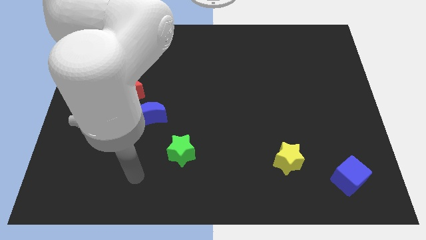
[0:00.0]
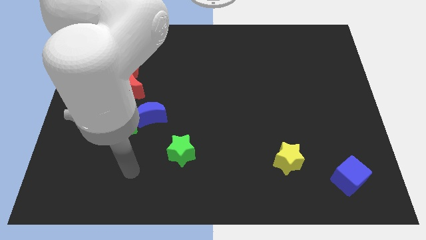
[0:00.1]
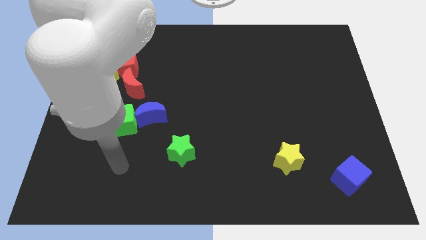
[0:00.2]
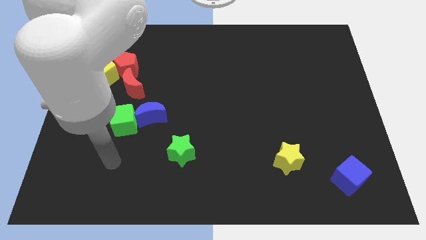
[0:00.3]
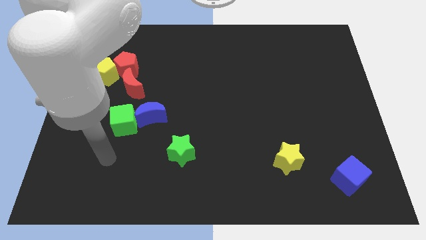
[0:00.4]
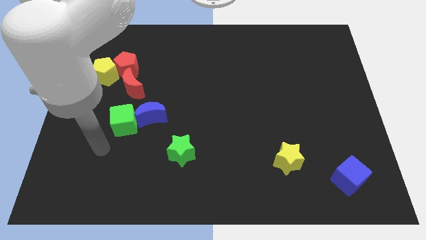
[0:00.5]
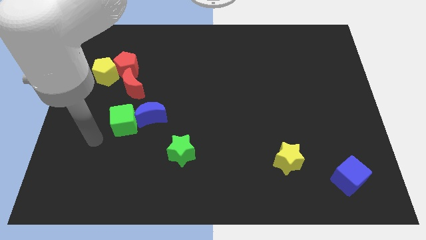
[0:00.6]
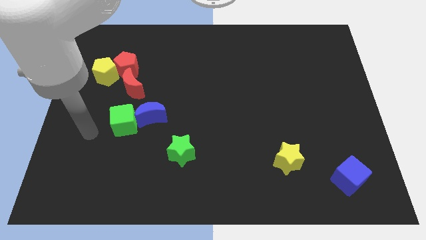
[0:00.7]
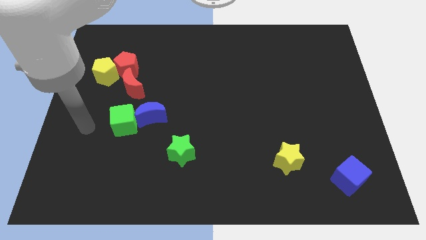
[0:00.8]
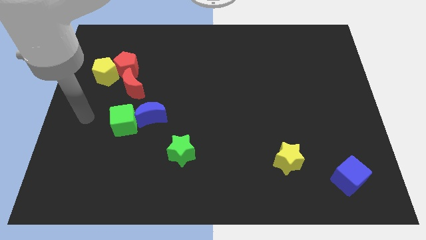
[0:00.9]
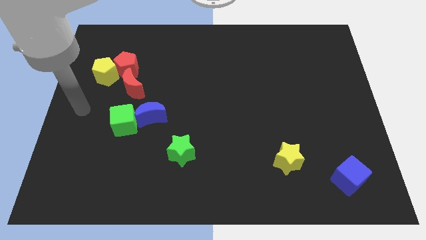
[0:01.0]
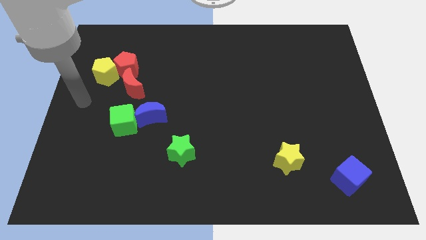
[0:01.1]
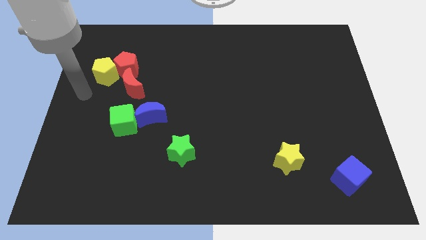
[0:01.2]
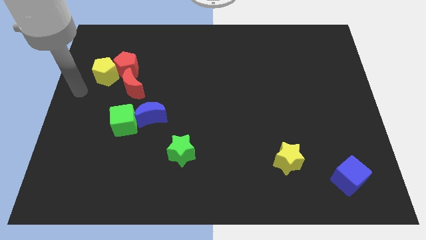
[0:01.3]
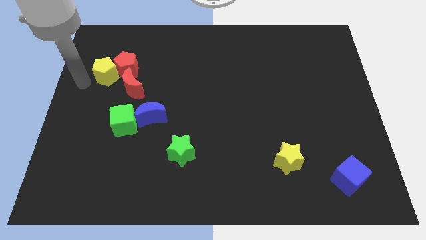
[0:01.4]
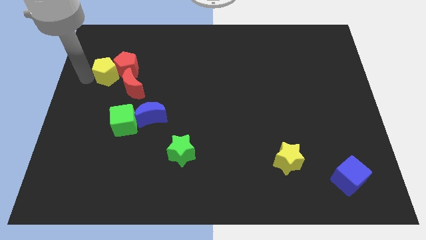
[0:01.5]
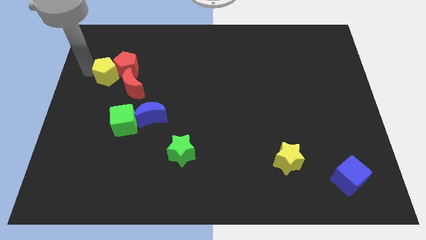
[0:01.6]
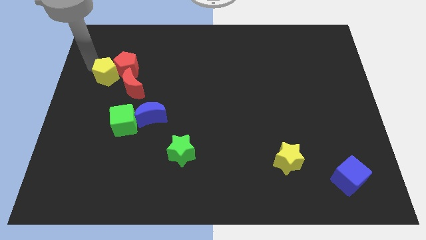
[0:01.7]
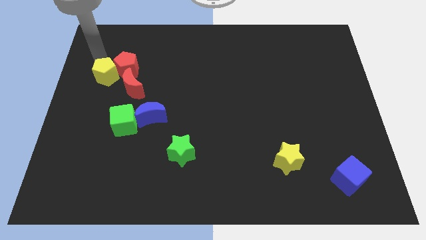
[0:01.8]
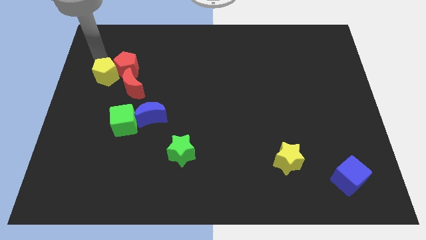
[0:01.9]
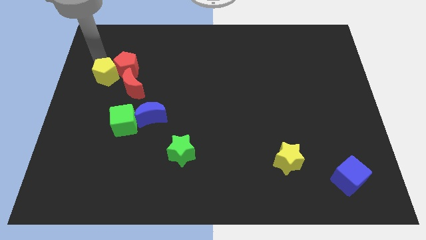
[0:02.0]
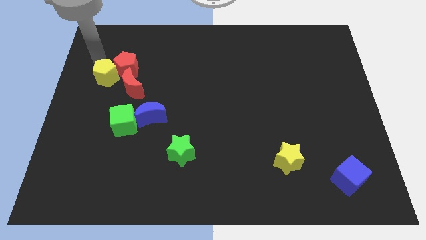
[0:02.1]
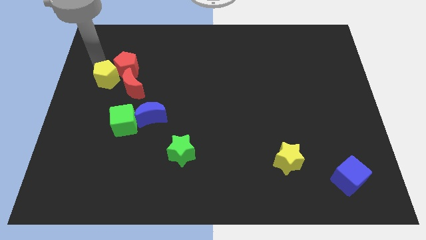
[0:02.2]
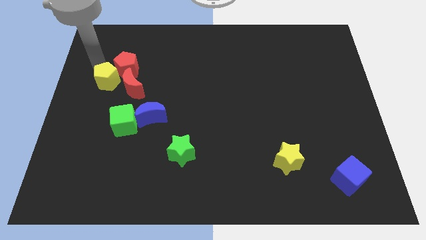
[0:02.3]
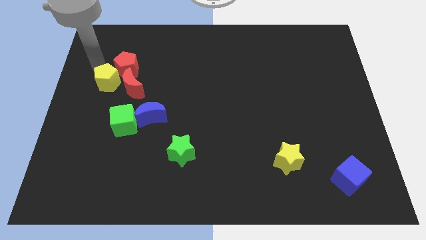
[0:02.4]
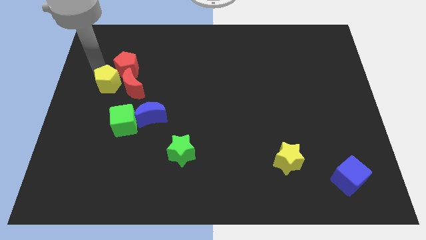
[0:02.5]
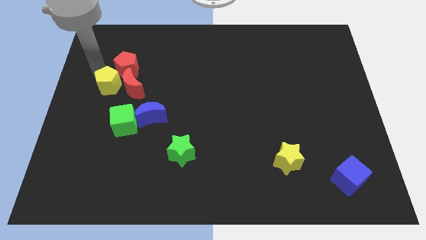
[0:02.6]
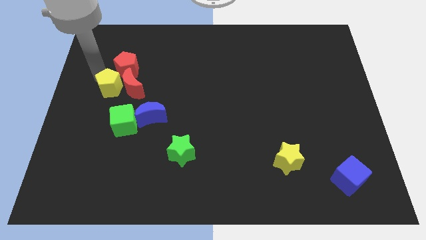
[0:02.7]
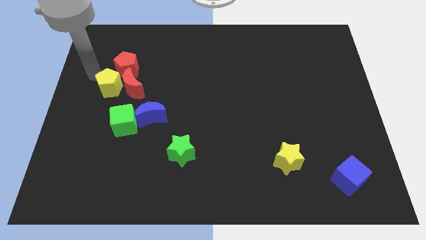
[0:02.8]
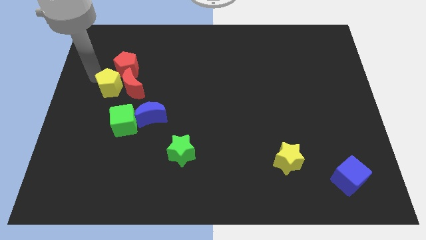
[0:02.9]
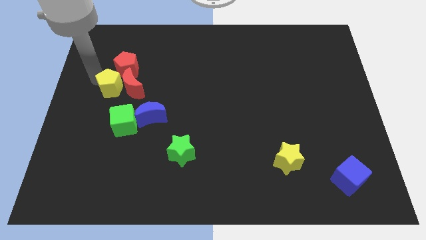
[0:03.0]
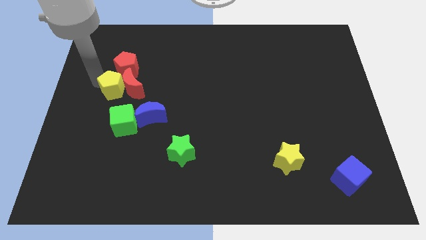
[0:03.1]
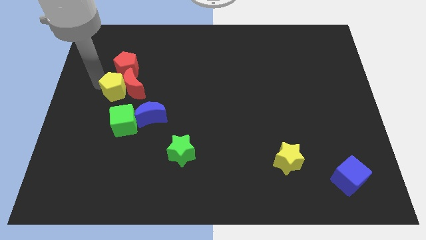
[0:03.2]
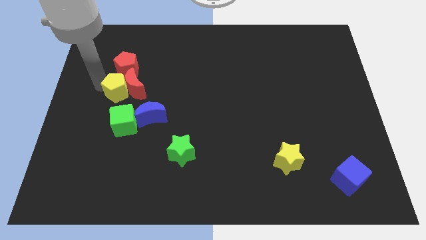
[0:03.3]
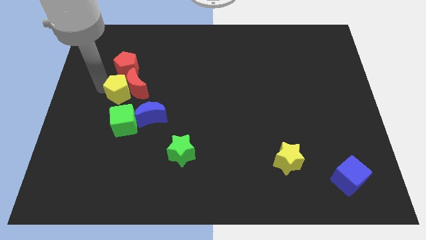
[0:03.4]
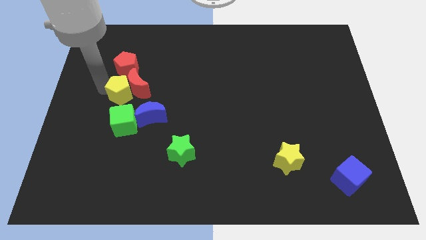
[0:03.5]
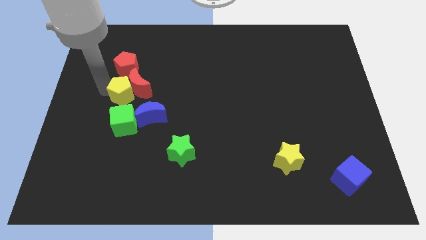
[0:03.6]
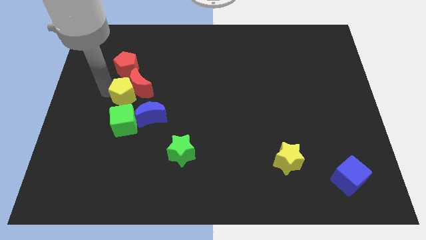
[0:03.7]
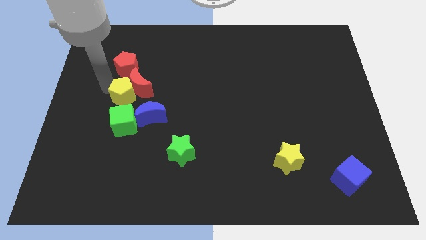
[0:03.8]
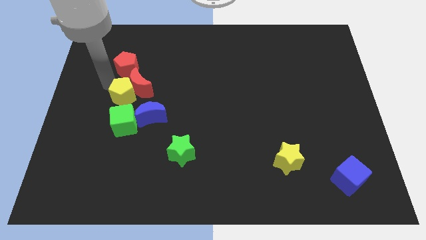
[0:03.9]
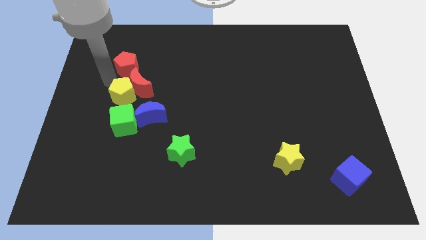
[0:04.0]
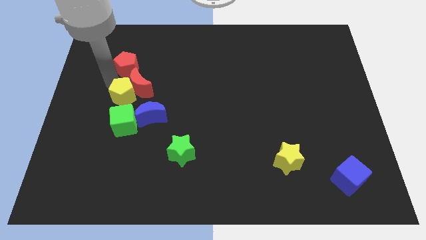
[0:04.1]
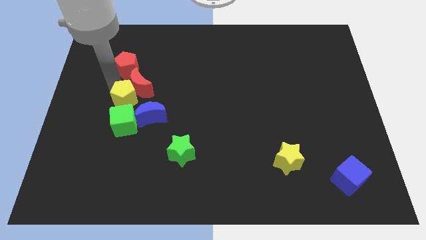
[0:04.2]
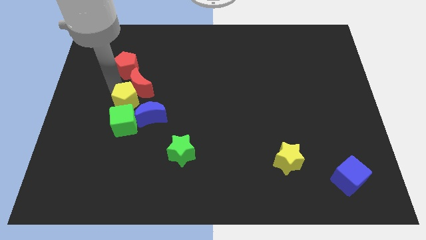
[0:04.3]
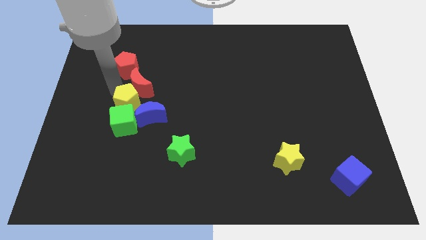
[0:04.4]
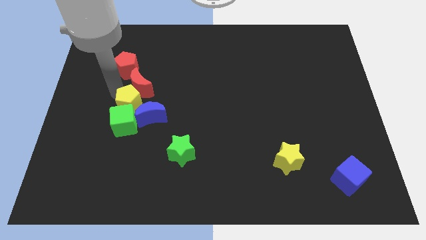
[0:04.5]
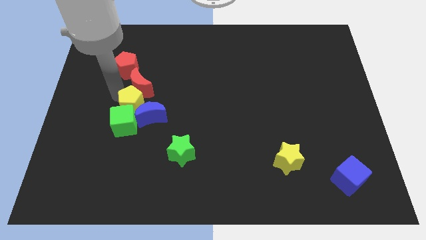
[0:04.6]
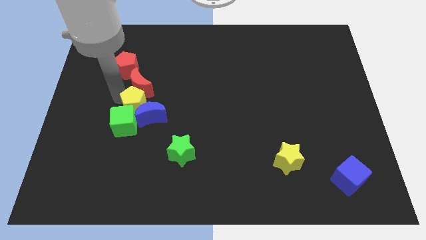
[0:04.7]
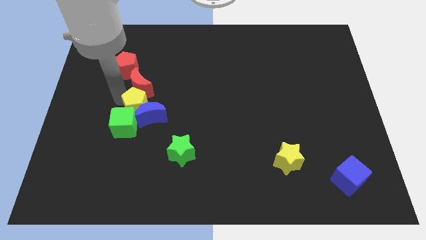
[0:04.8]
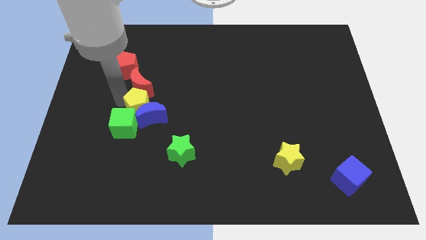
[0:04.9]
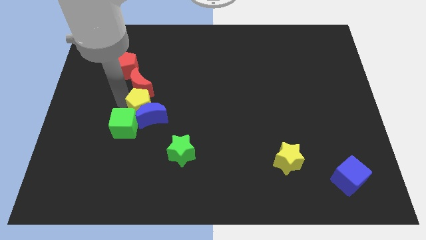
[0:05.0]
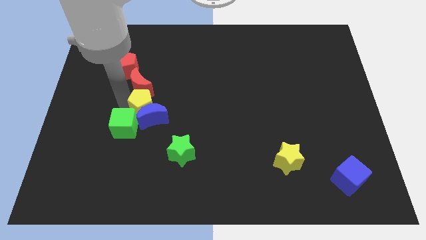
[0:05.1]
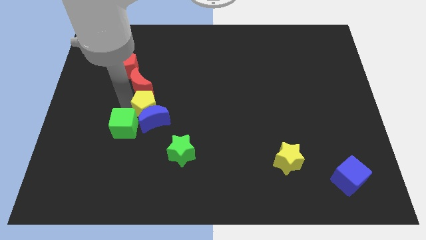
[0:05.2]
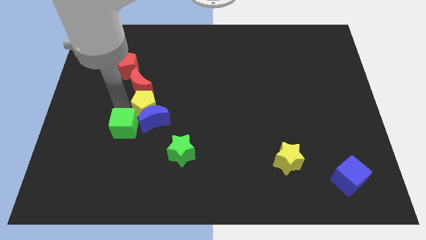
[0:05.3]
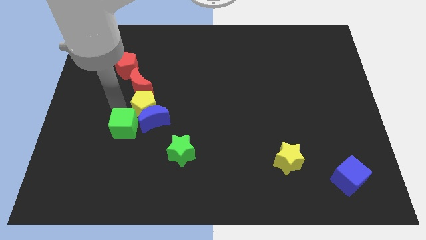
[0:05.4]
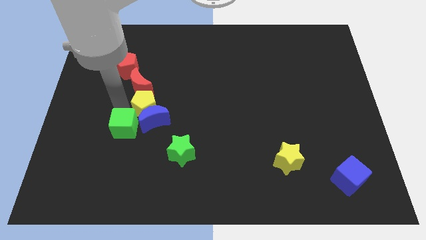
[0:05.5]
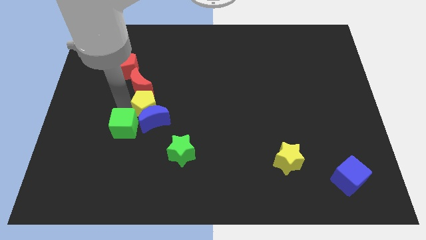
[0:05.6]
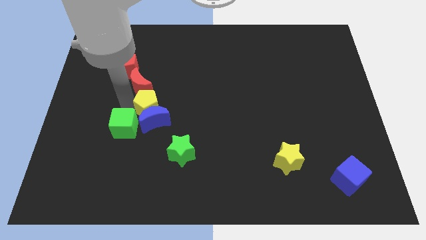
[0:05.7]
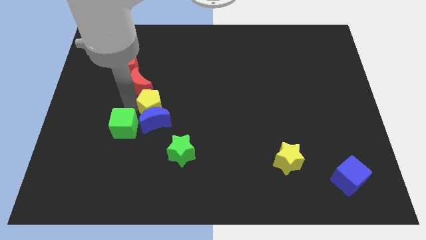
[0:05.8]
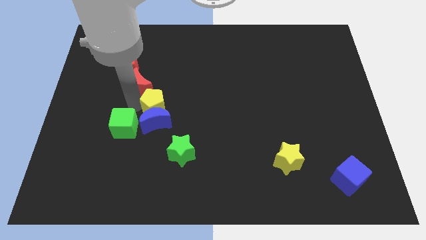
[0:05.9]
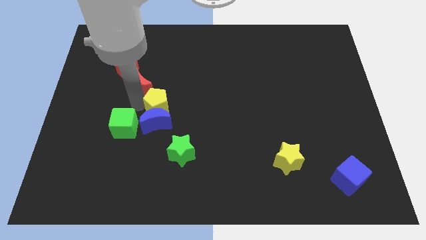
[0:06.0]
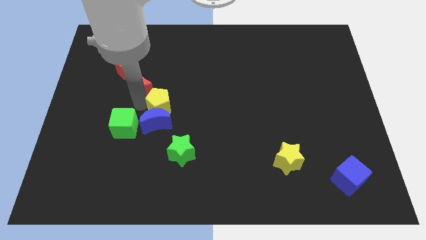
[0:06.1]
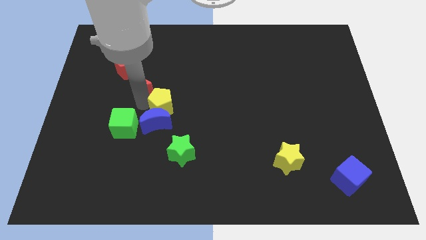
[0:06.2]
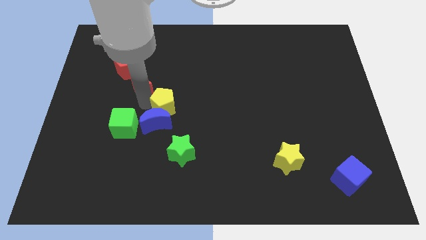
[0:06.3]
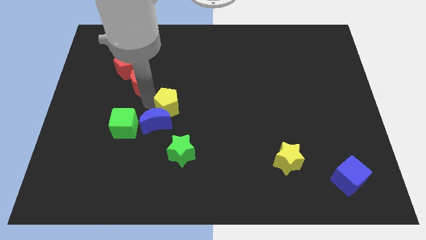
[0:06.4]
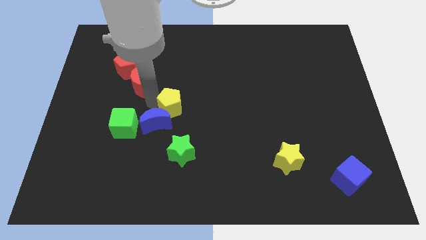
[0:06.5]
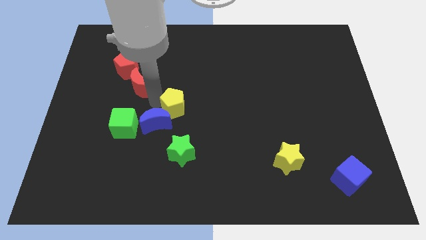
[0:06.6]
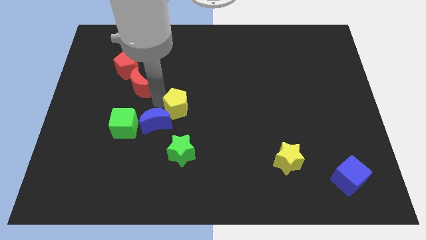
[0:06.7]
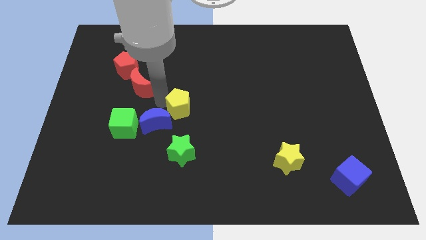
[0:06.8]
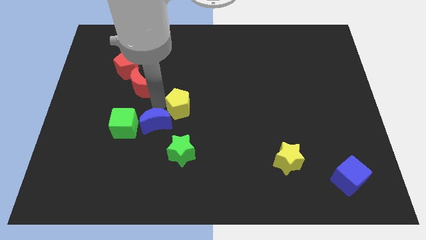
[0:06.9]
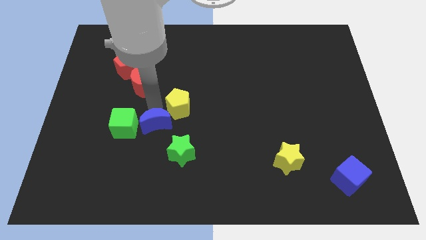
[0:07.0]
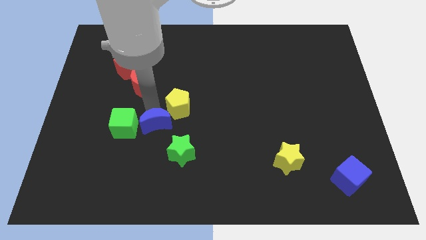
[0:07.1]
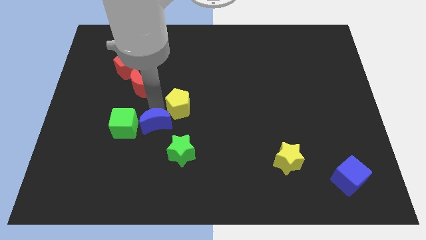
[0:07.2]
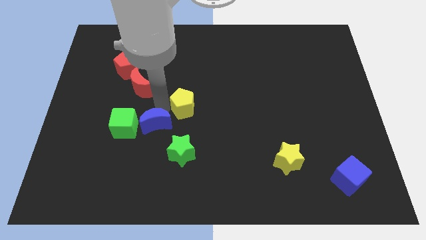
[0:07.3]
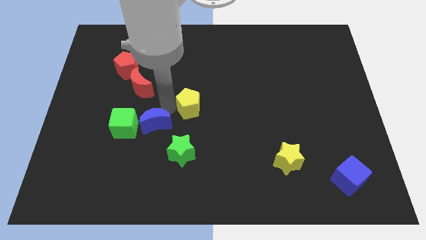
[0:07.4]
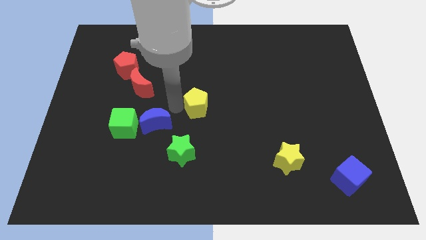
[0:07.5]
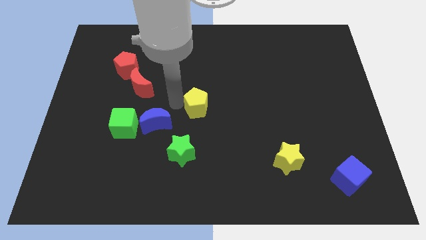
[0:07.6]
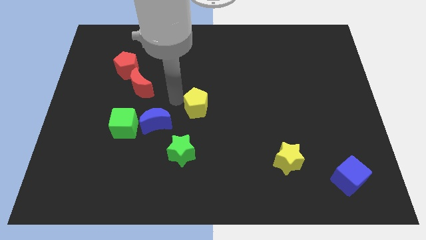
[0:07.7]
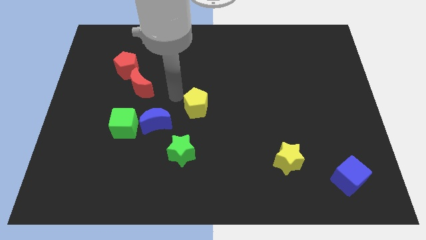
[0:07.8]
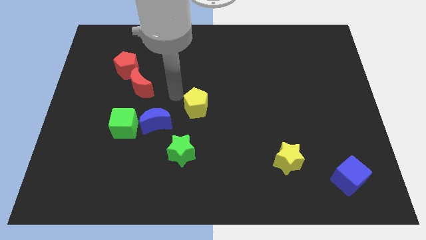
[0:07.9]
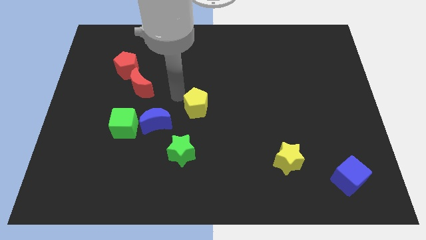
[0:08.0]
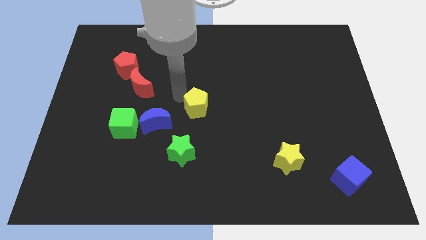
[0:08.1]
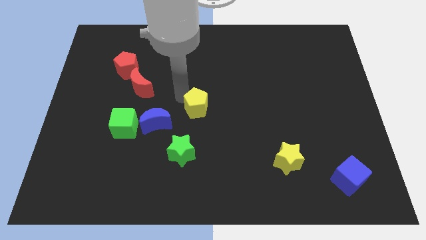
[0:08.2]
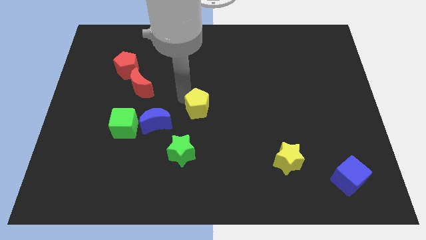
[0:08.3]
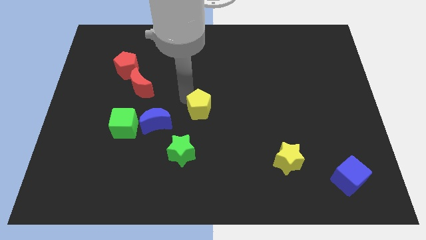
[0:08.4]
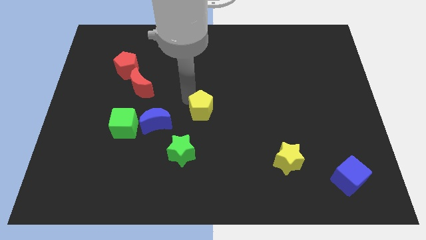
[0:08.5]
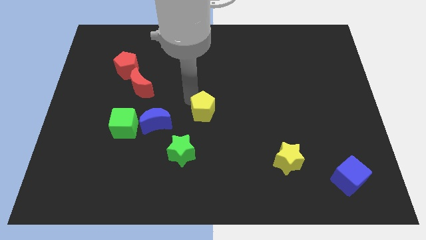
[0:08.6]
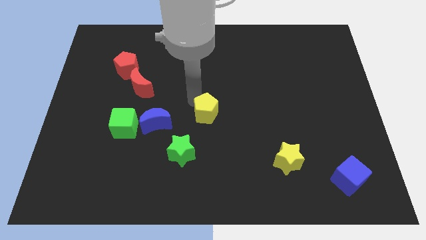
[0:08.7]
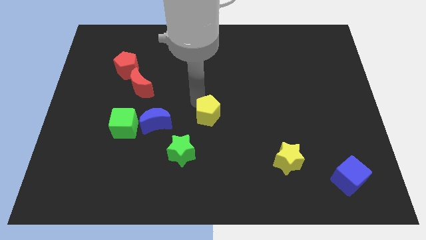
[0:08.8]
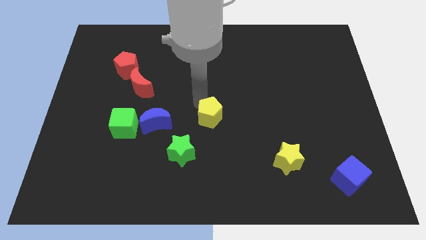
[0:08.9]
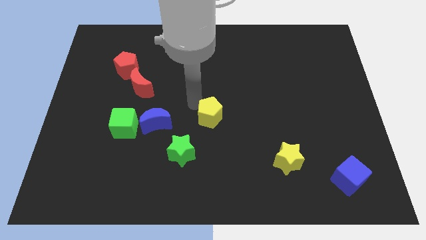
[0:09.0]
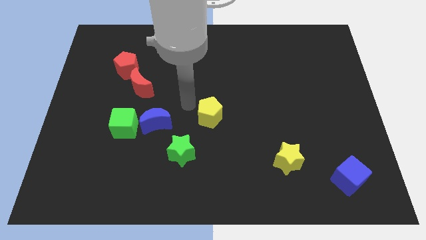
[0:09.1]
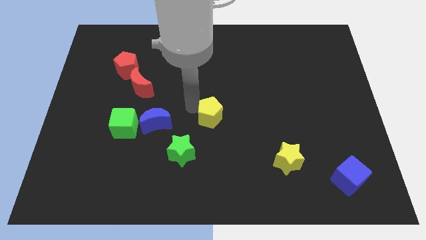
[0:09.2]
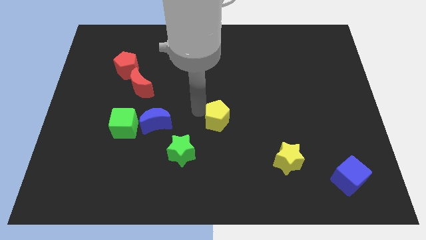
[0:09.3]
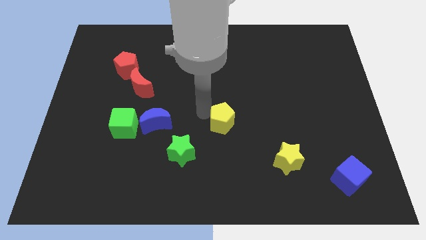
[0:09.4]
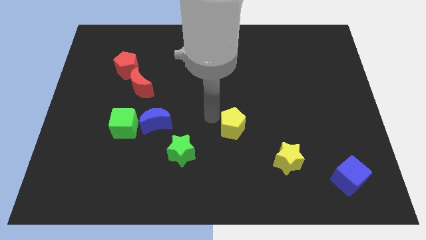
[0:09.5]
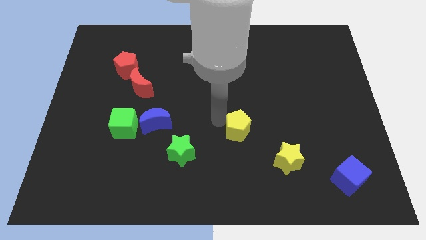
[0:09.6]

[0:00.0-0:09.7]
push the yellow pentagon to the top left of the yellow star
